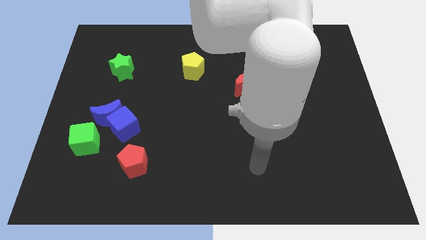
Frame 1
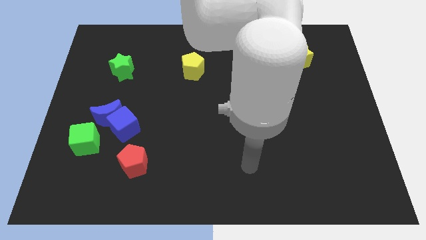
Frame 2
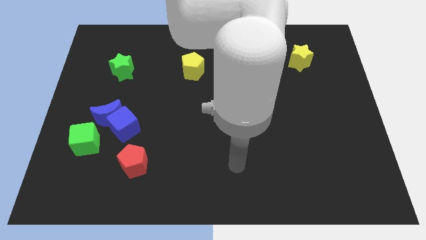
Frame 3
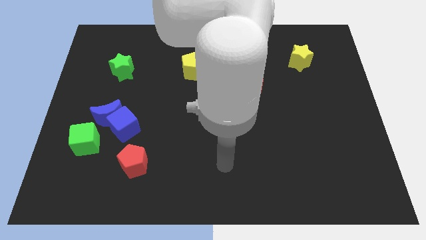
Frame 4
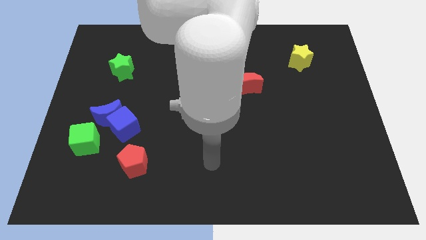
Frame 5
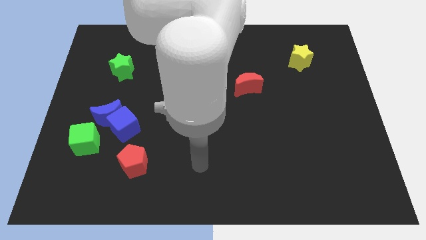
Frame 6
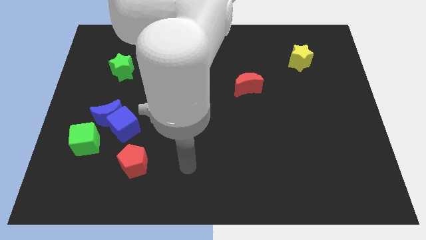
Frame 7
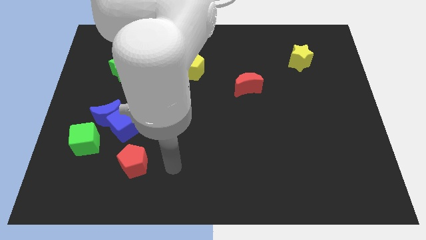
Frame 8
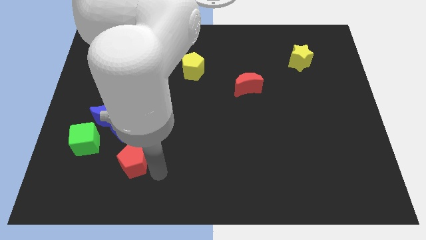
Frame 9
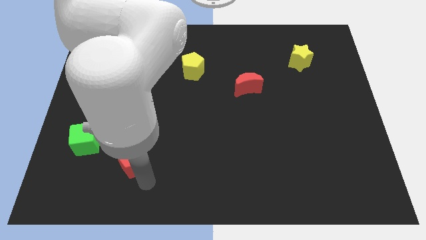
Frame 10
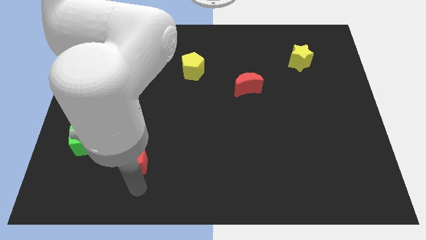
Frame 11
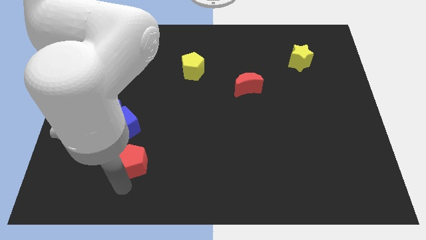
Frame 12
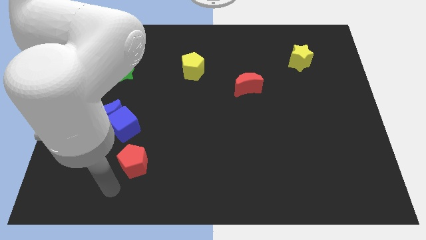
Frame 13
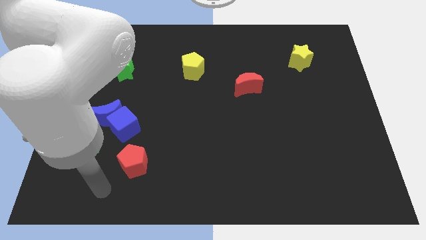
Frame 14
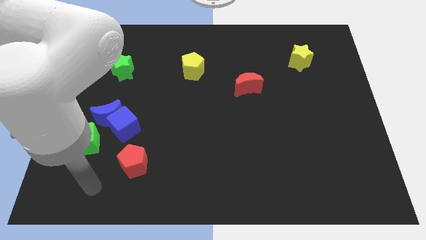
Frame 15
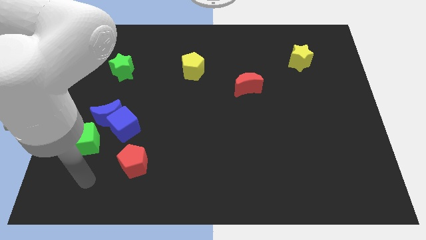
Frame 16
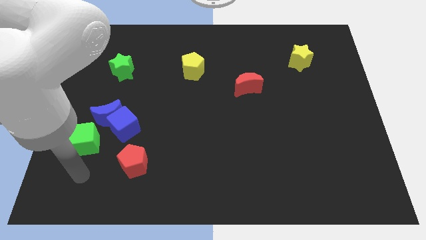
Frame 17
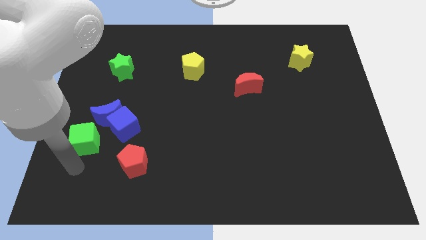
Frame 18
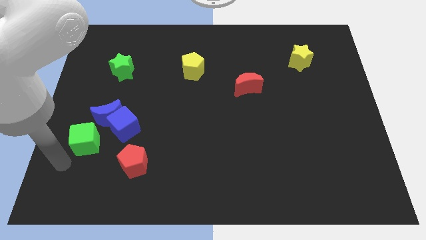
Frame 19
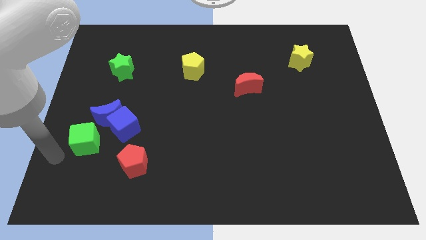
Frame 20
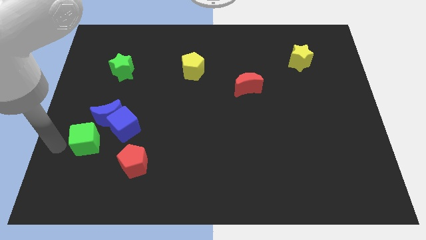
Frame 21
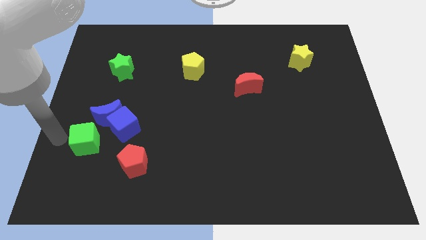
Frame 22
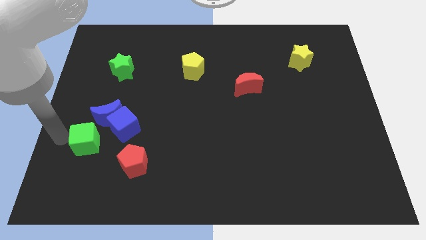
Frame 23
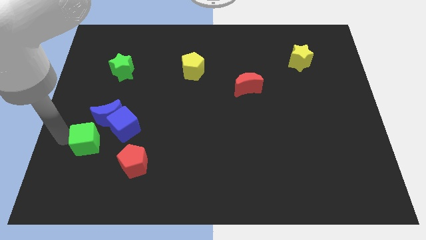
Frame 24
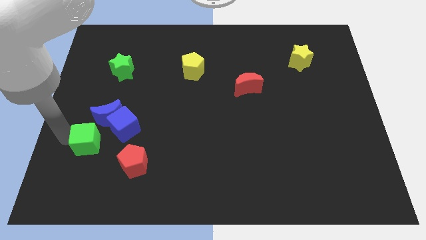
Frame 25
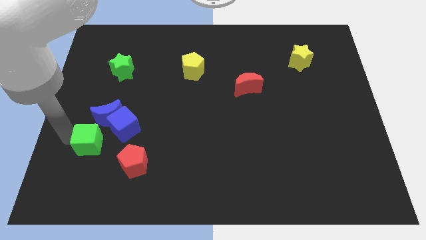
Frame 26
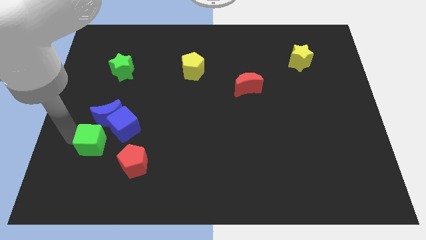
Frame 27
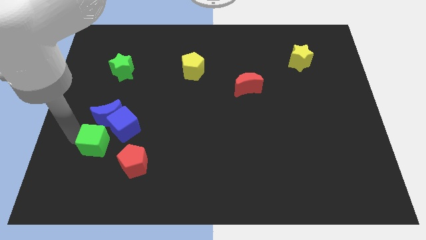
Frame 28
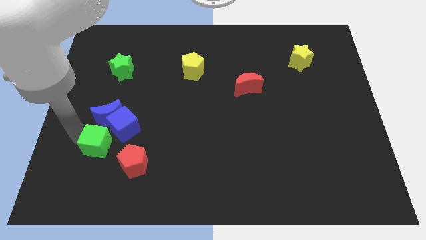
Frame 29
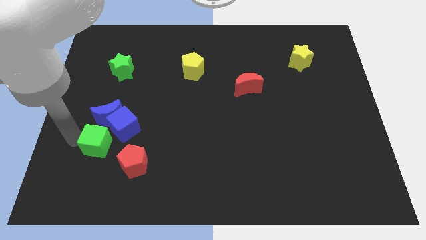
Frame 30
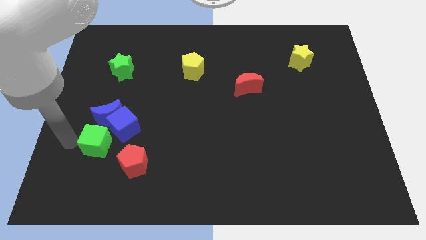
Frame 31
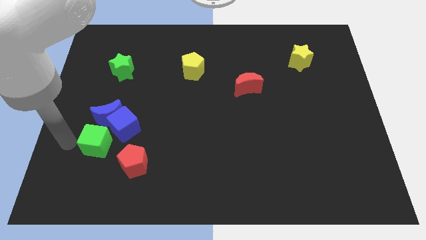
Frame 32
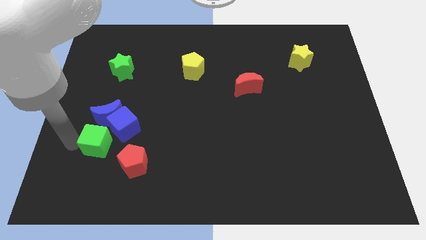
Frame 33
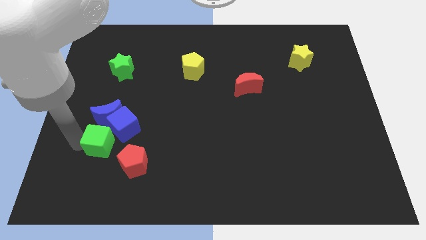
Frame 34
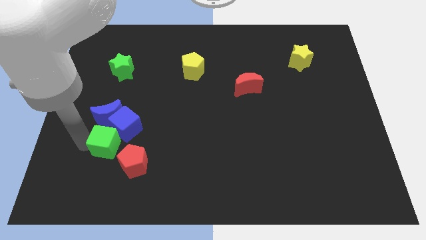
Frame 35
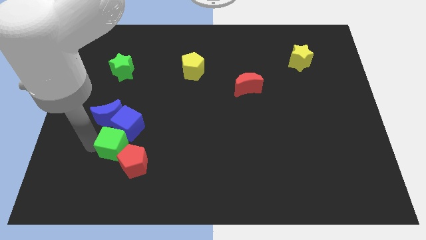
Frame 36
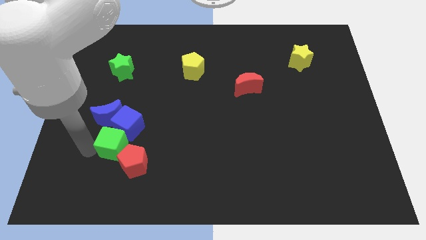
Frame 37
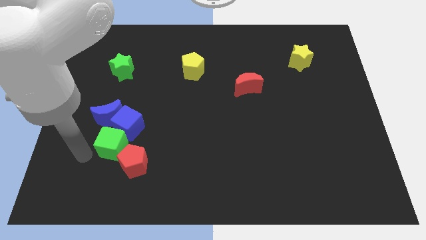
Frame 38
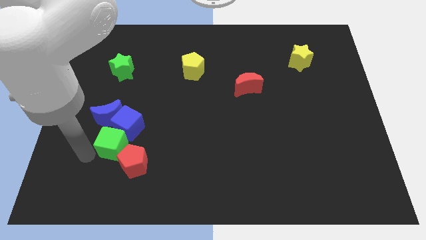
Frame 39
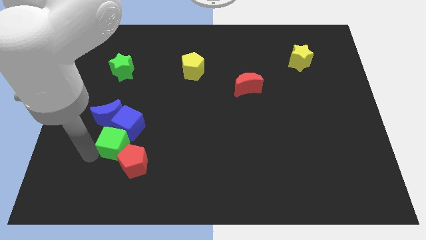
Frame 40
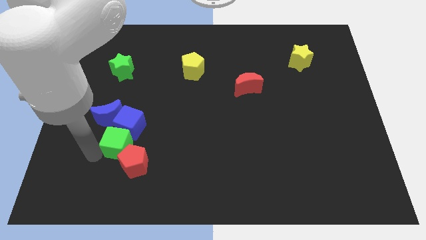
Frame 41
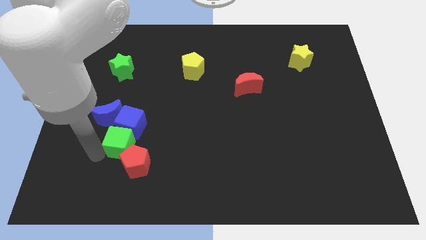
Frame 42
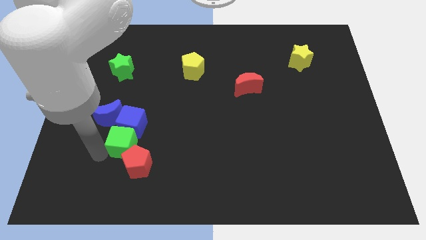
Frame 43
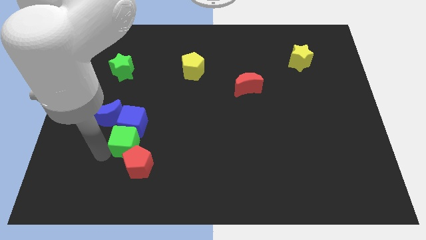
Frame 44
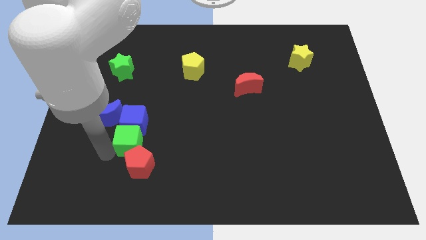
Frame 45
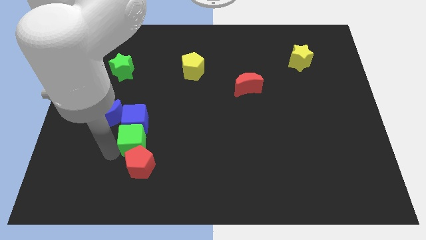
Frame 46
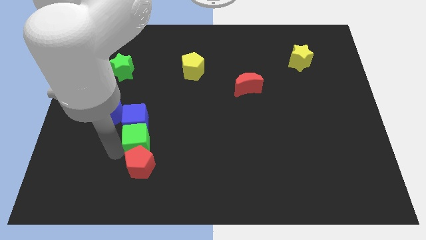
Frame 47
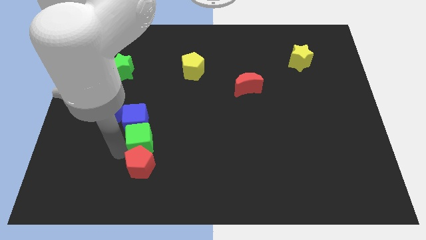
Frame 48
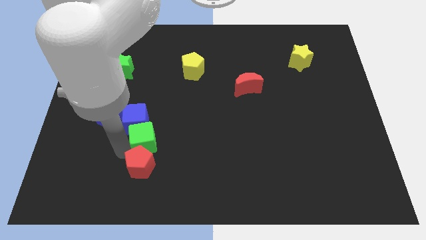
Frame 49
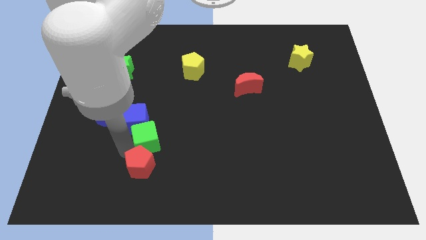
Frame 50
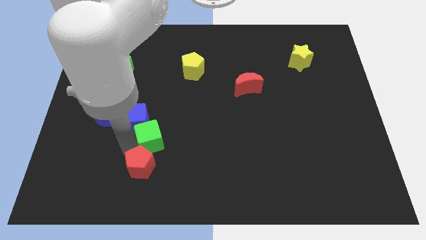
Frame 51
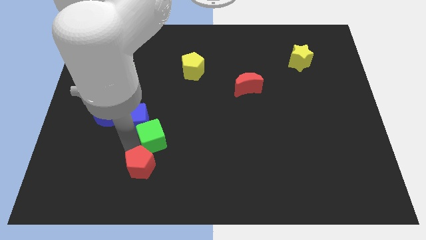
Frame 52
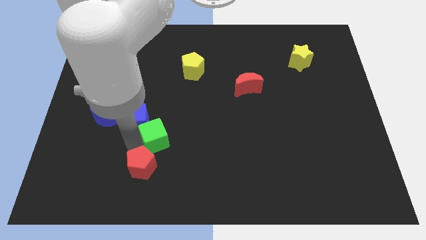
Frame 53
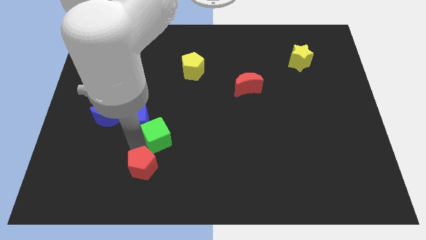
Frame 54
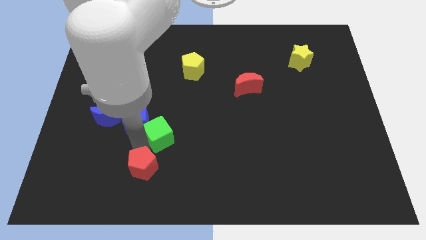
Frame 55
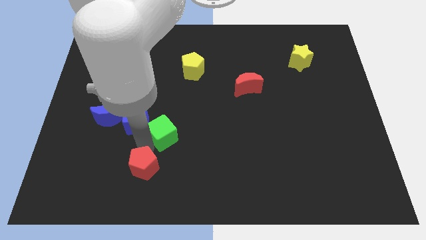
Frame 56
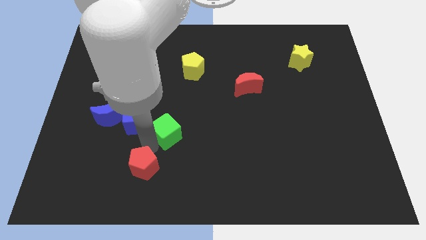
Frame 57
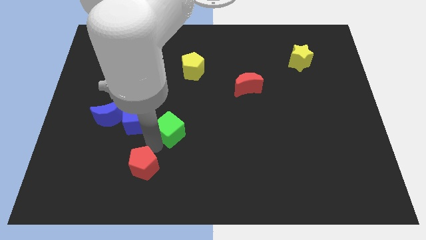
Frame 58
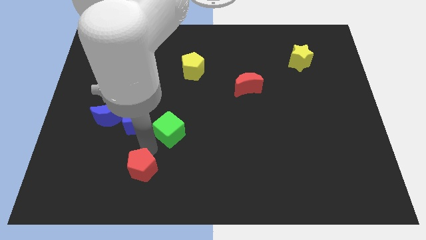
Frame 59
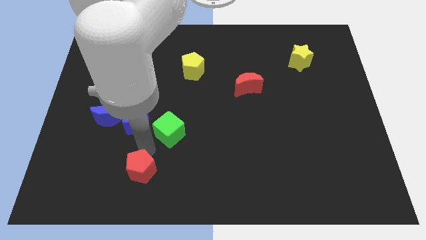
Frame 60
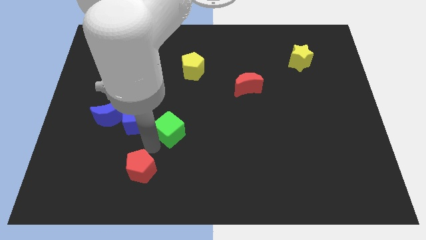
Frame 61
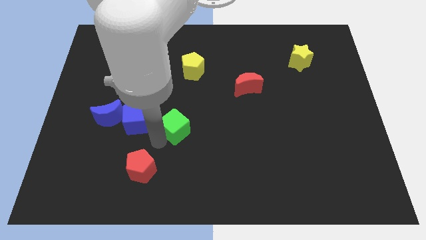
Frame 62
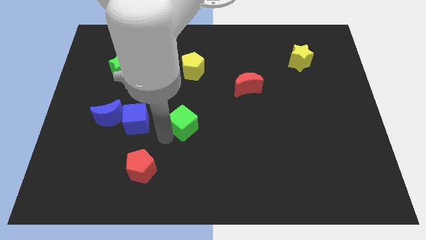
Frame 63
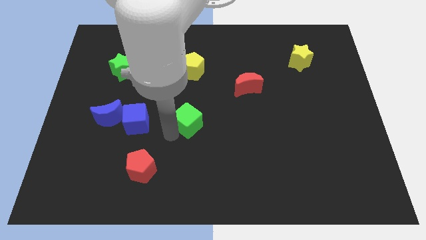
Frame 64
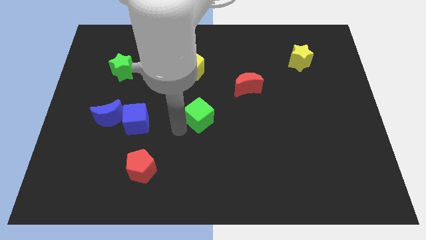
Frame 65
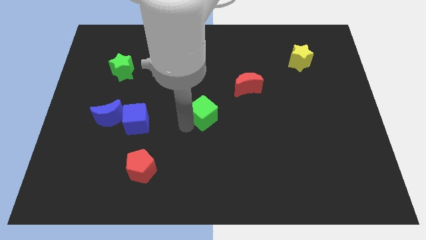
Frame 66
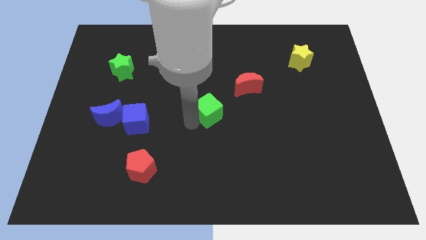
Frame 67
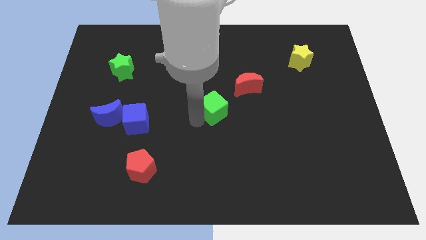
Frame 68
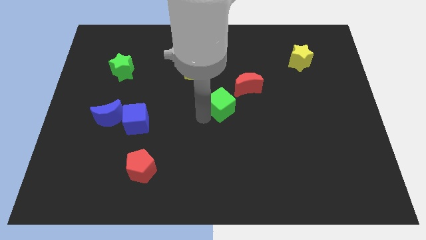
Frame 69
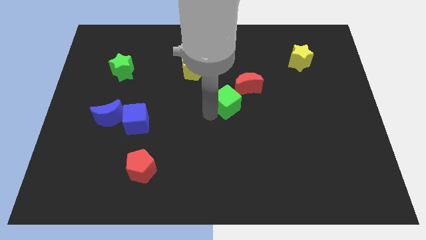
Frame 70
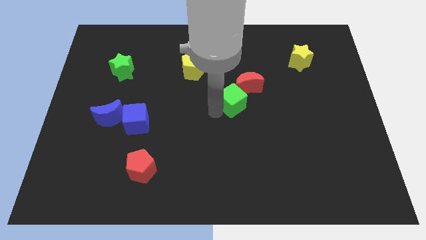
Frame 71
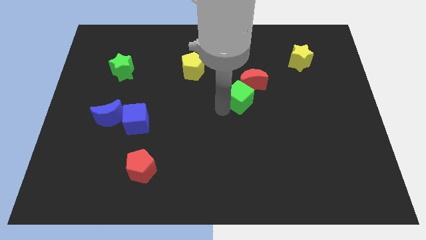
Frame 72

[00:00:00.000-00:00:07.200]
slide the green cube next to the red moon
